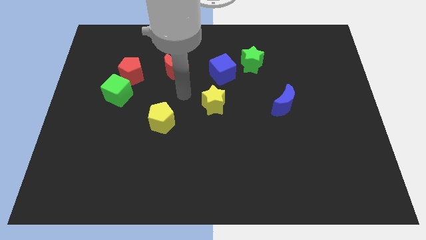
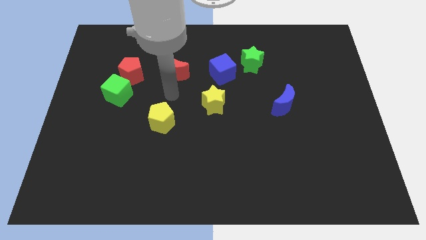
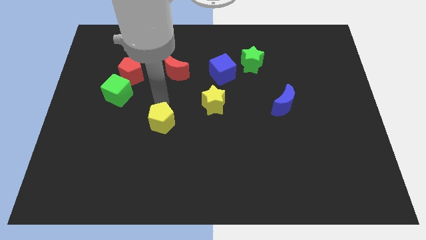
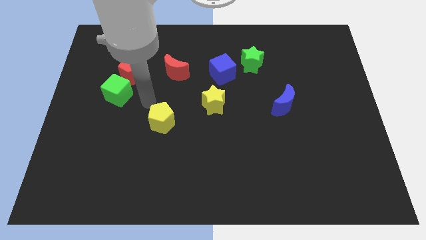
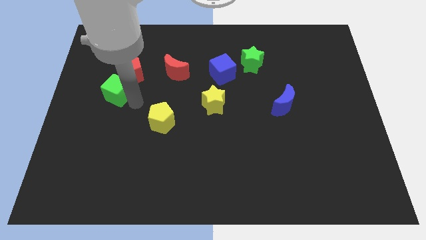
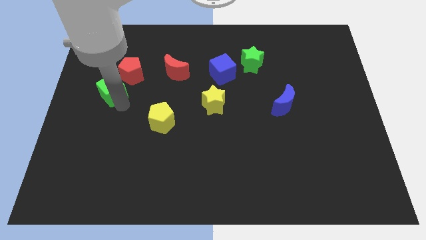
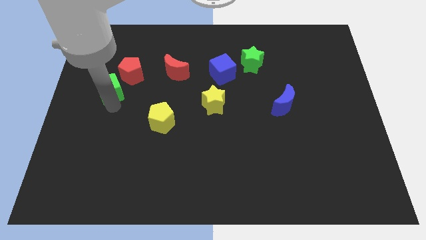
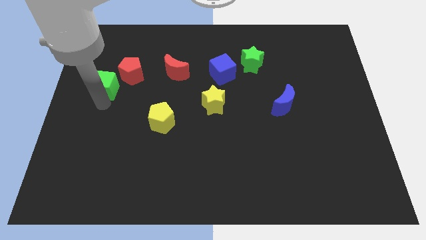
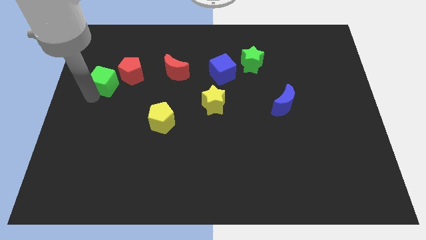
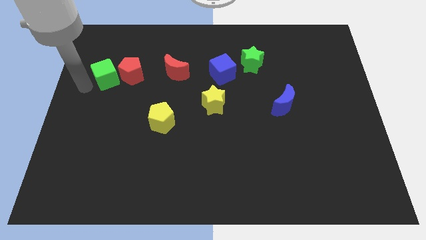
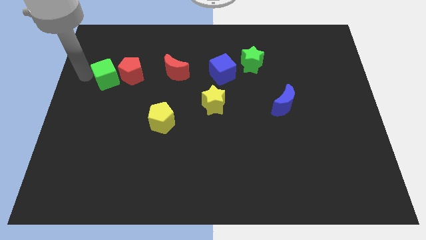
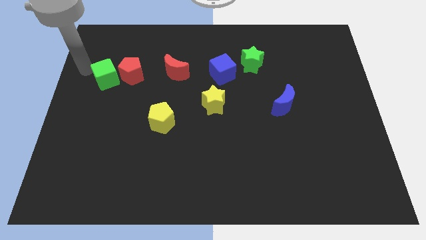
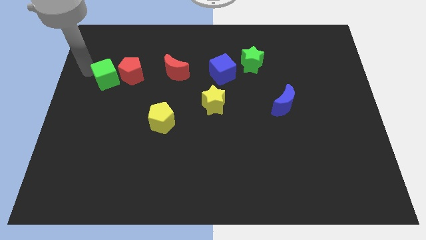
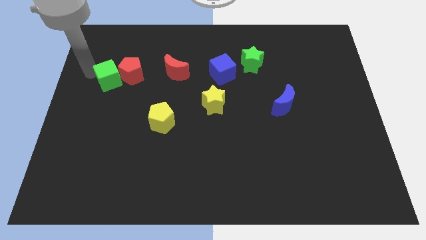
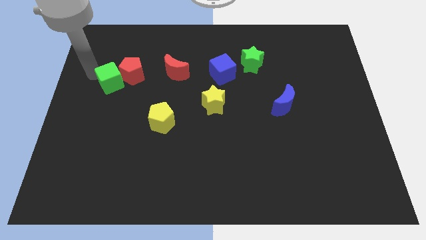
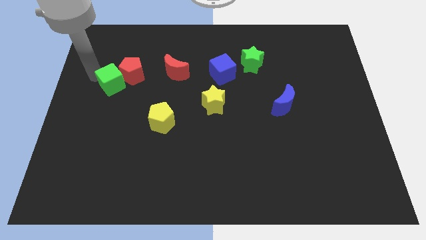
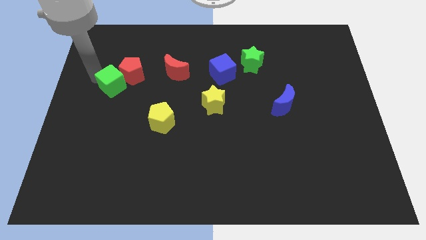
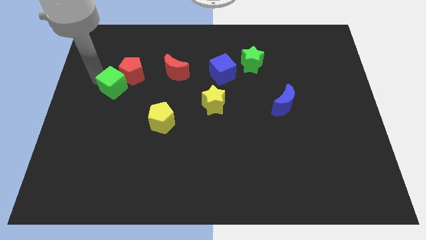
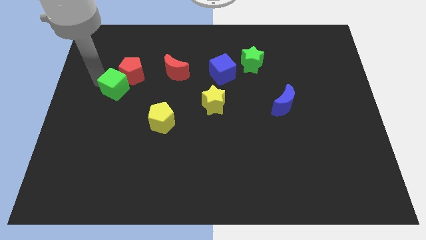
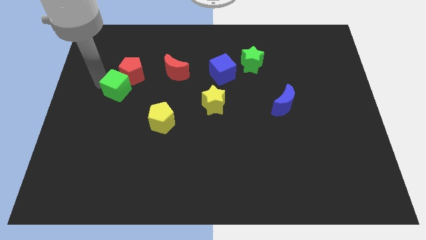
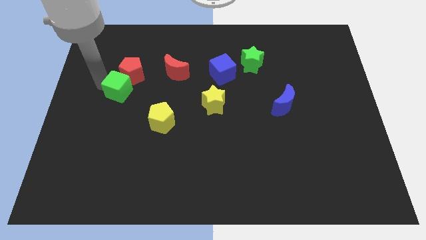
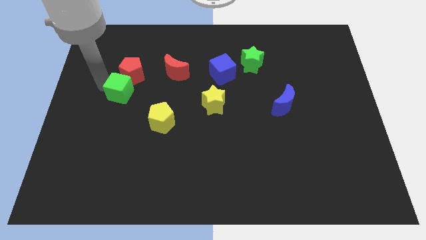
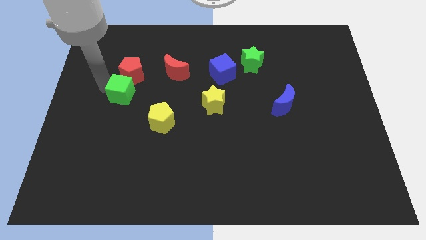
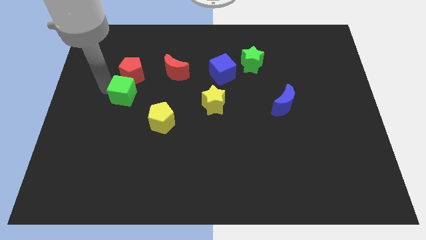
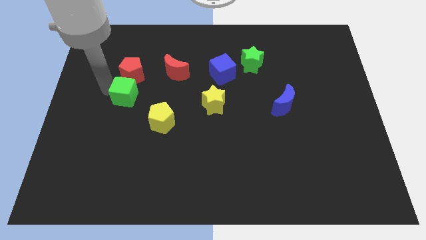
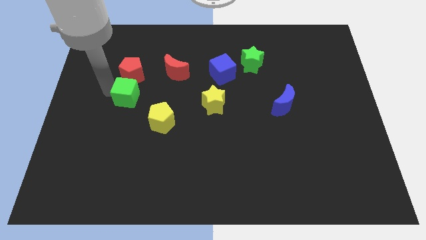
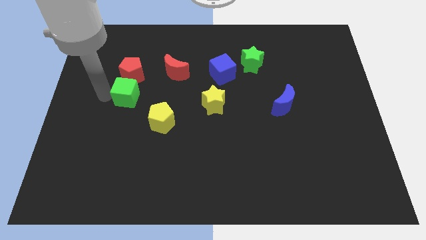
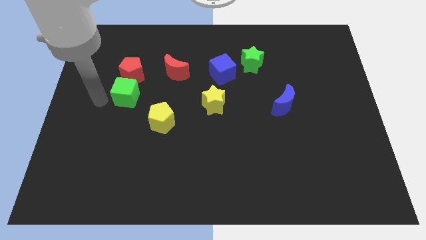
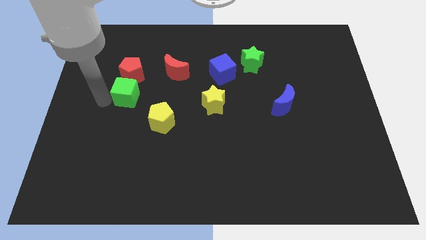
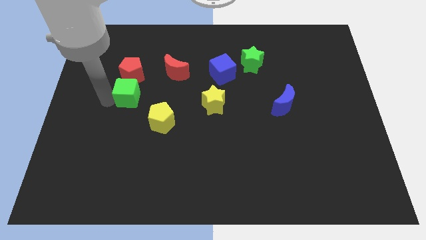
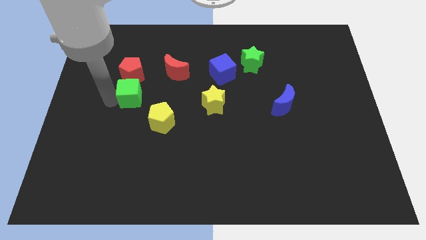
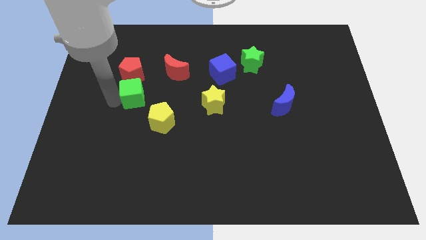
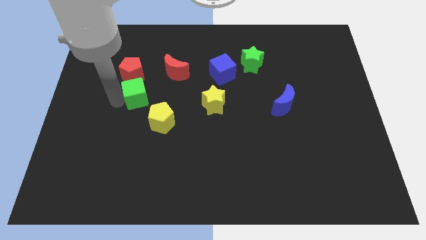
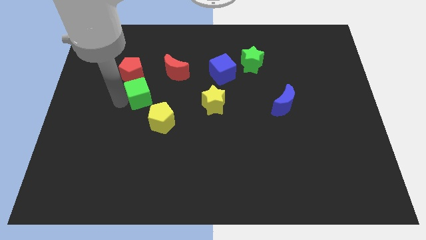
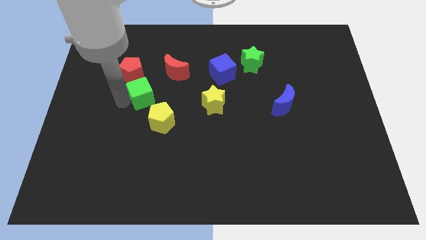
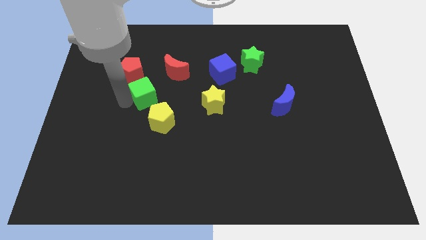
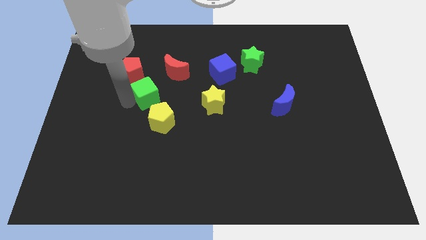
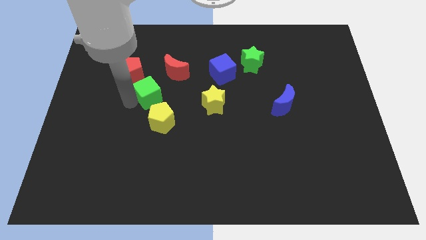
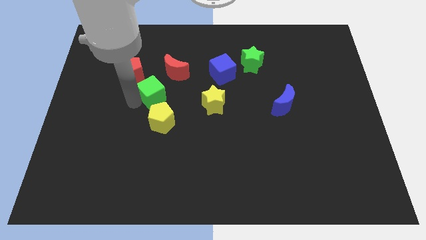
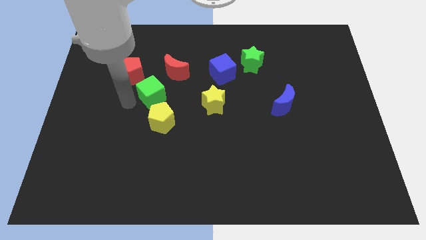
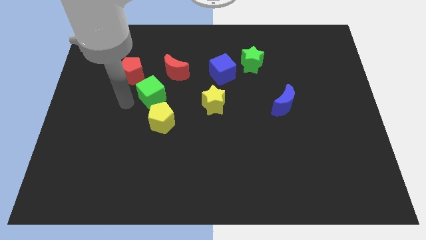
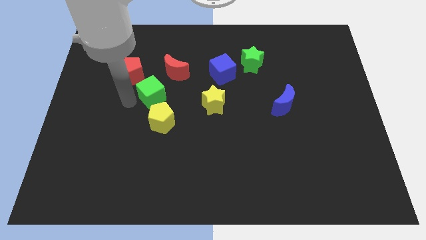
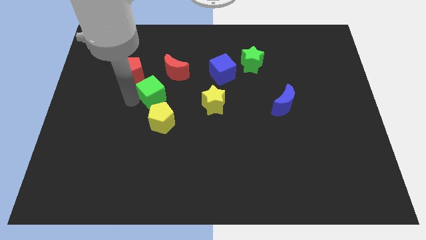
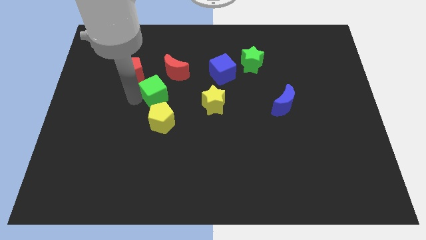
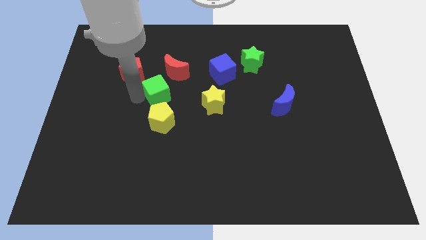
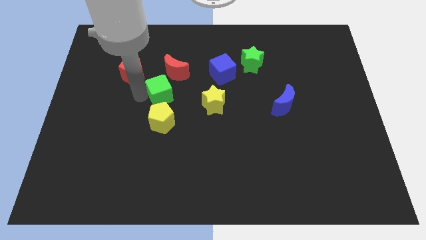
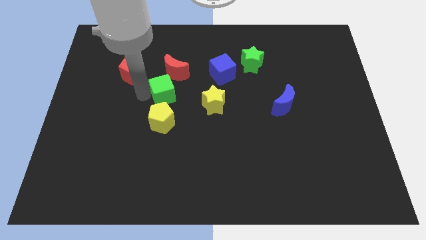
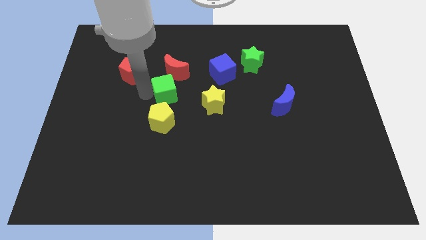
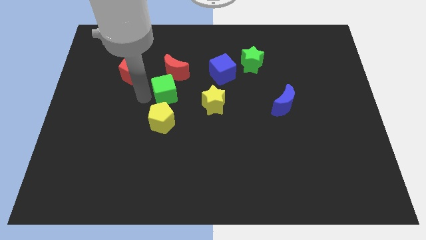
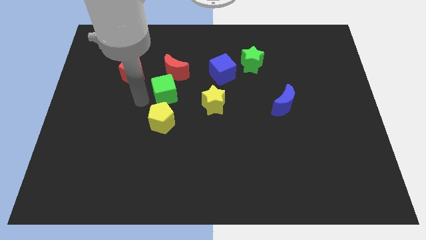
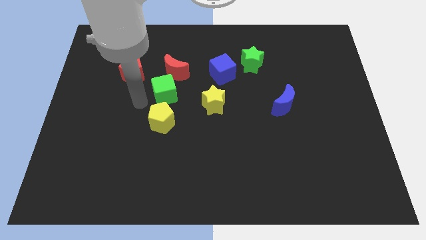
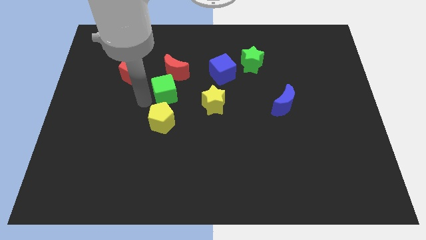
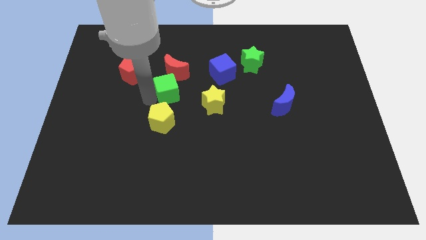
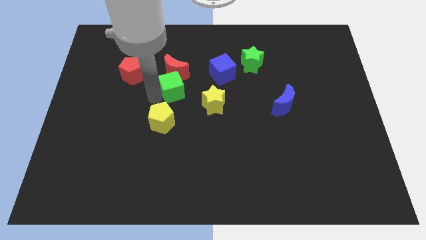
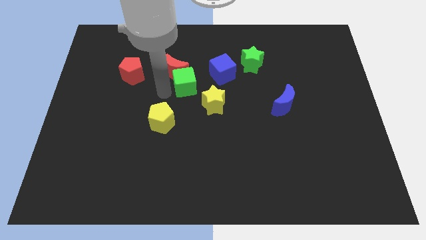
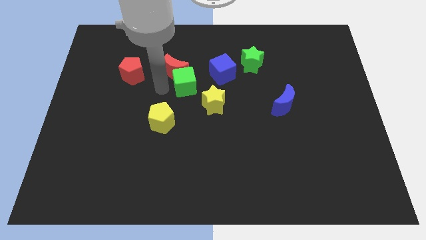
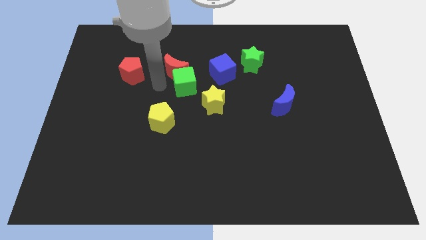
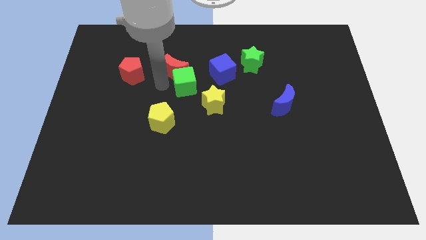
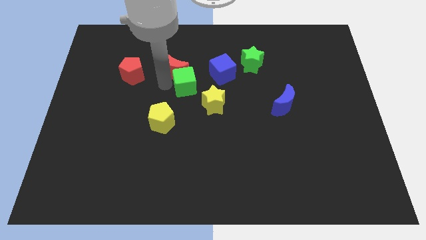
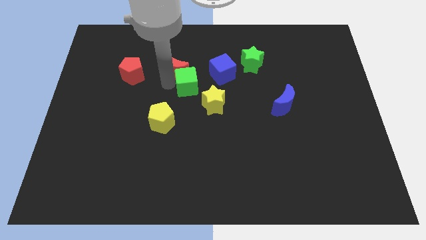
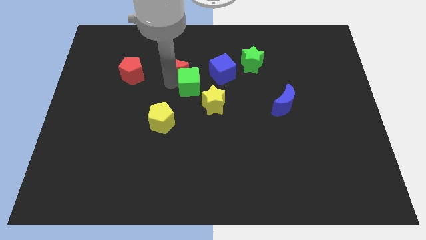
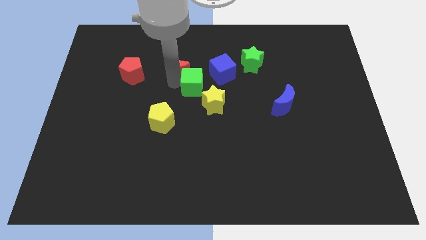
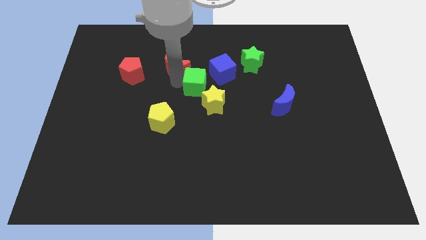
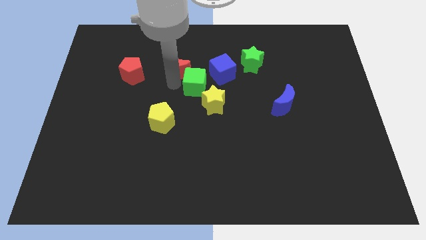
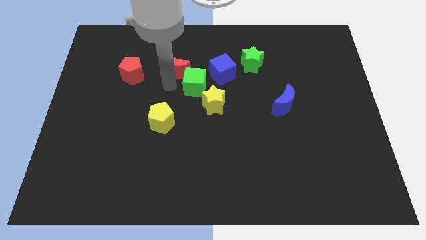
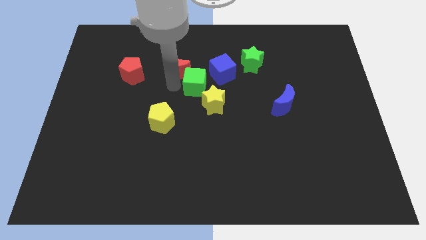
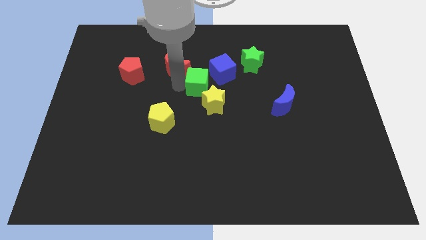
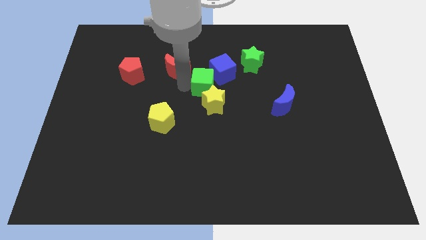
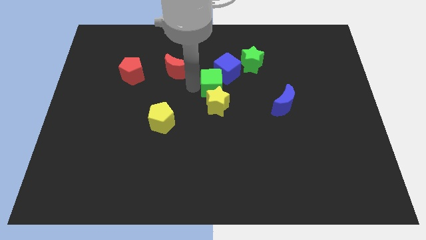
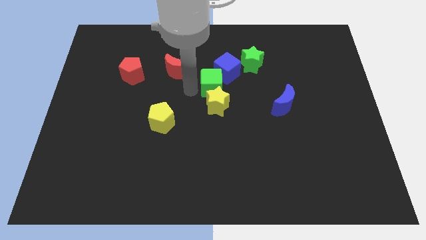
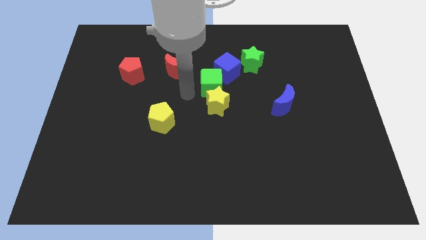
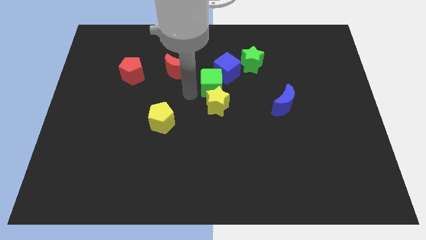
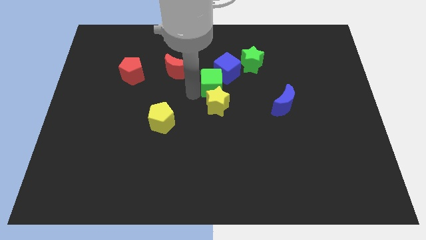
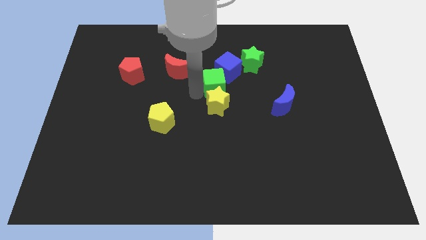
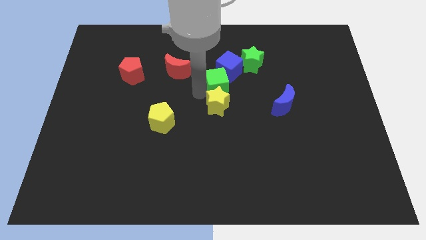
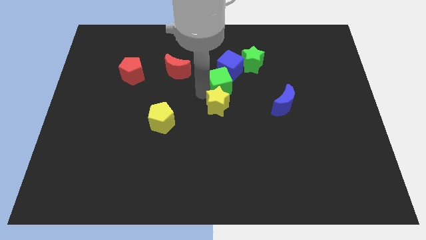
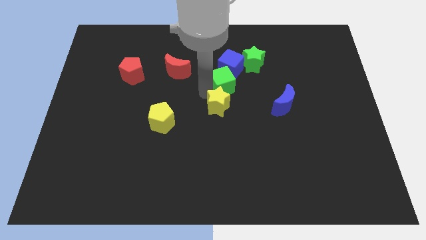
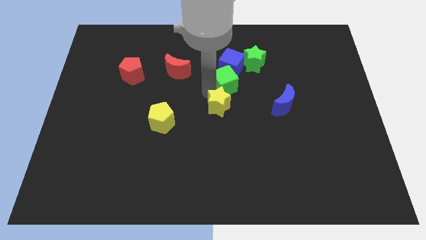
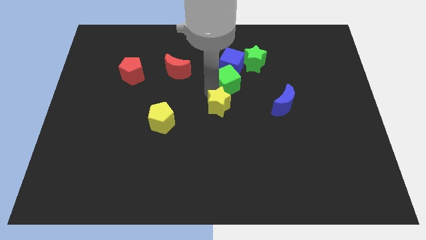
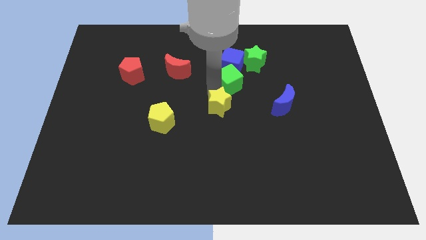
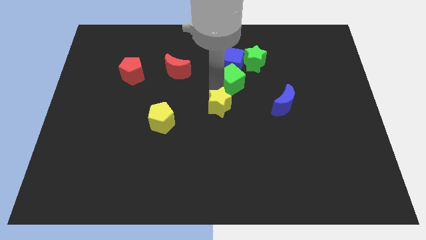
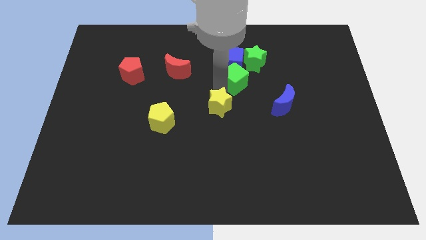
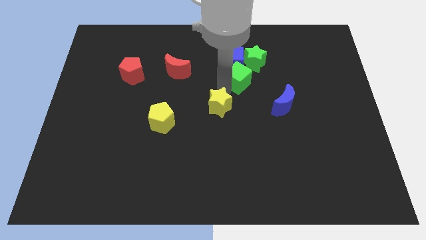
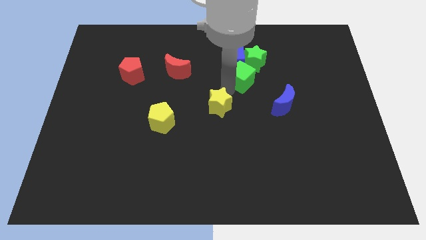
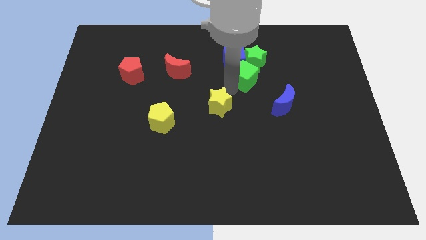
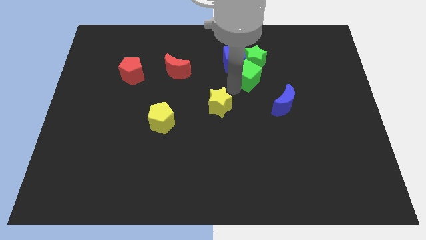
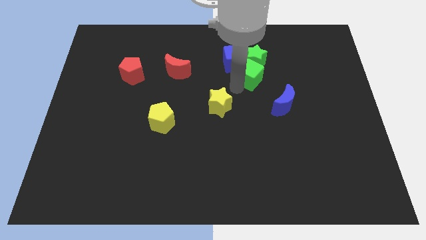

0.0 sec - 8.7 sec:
move the green cube next to the green star
